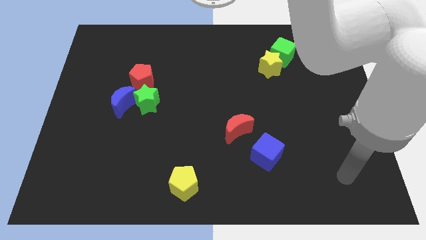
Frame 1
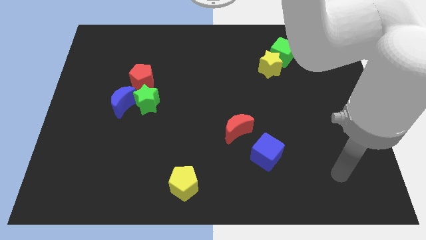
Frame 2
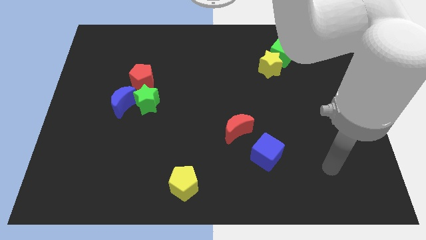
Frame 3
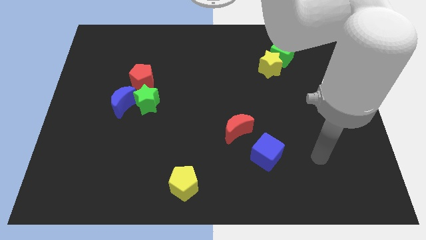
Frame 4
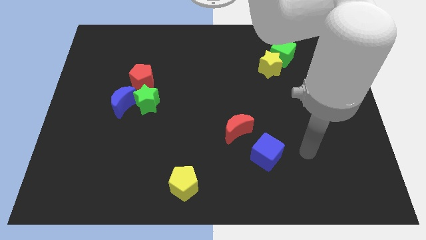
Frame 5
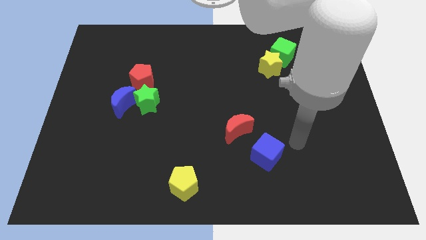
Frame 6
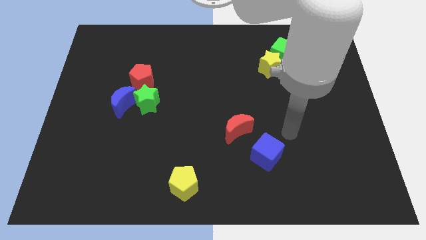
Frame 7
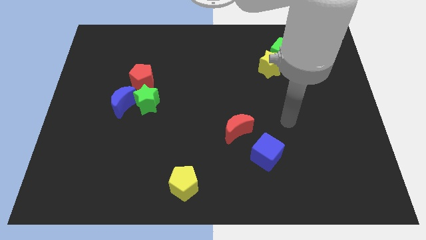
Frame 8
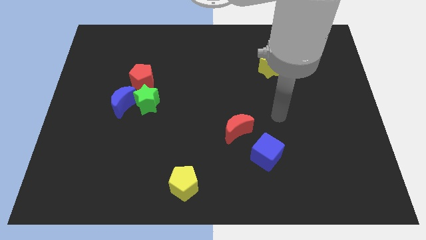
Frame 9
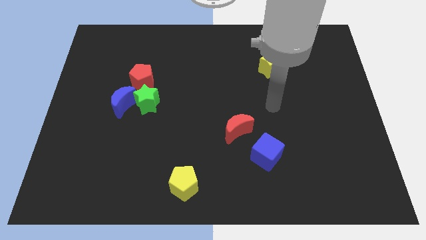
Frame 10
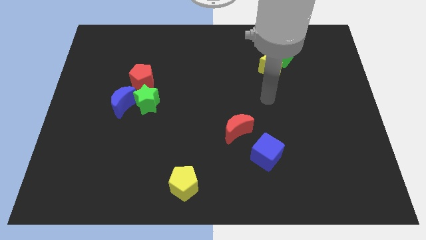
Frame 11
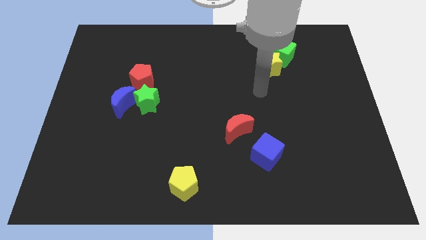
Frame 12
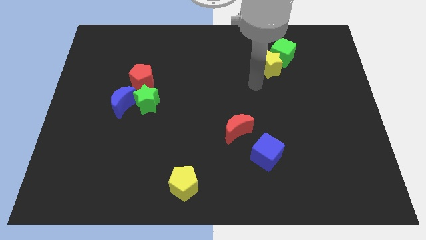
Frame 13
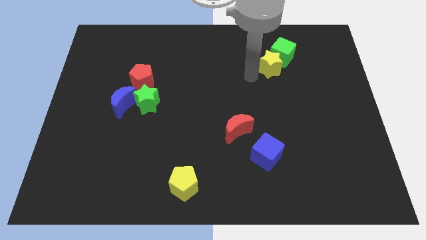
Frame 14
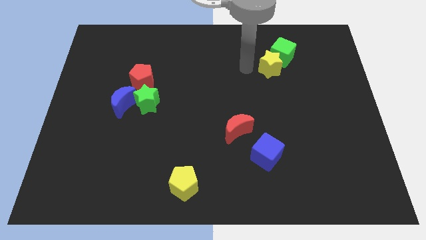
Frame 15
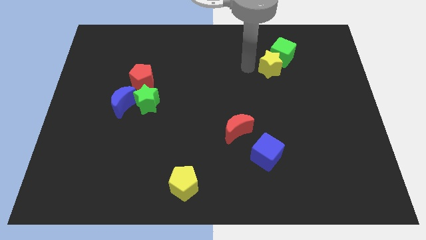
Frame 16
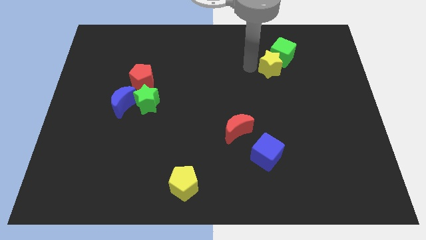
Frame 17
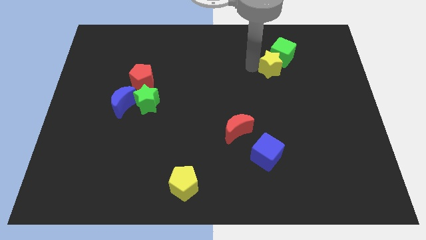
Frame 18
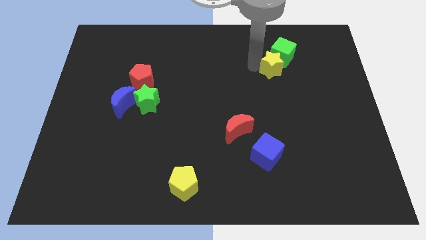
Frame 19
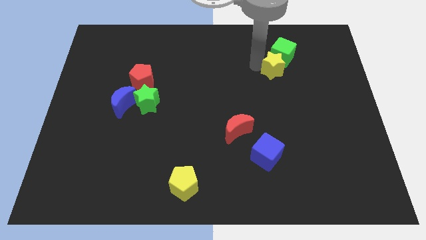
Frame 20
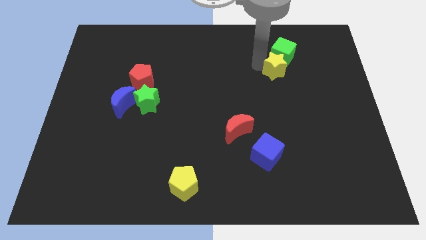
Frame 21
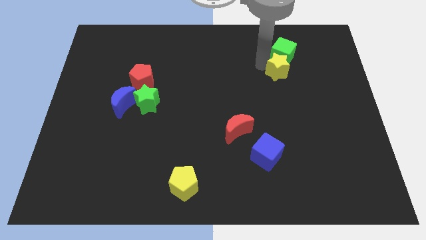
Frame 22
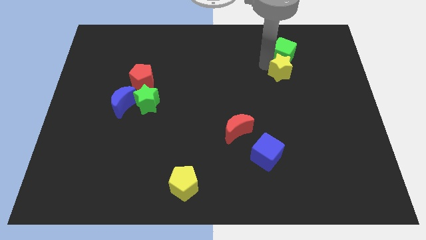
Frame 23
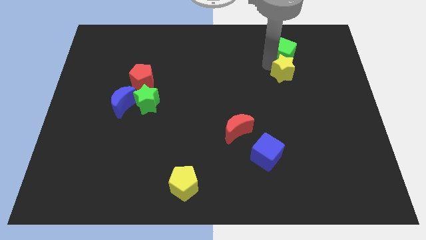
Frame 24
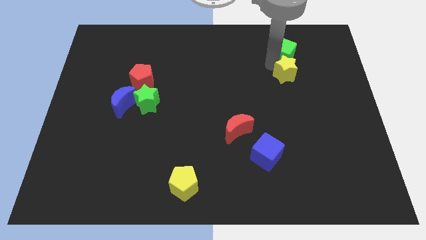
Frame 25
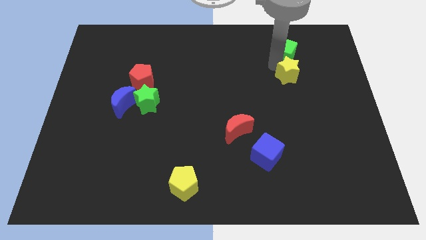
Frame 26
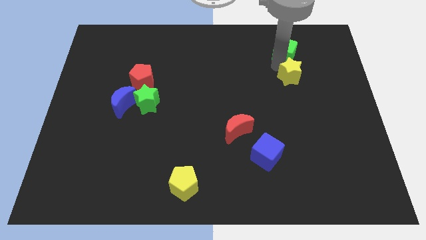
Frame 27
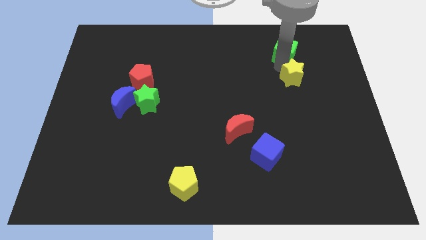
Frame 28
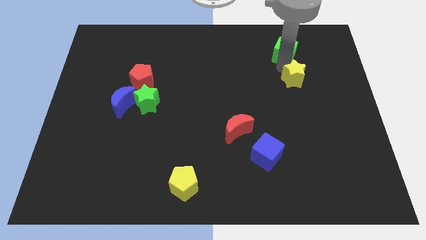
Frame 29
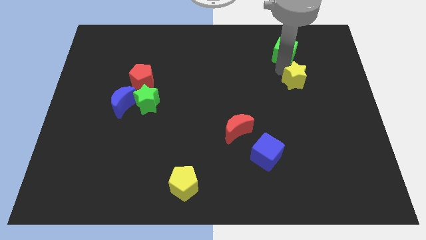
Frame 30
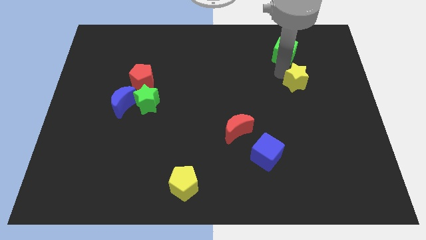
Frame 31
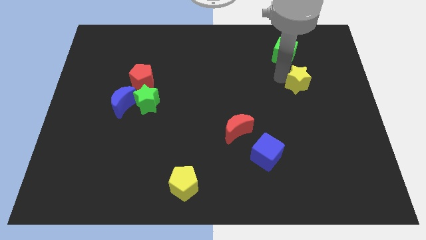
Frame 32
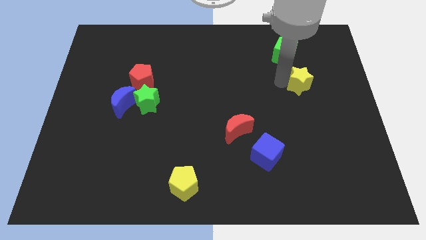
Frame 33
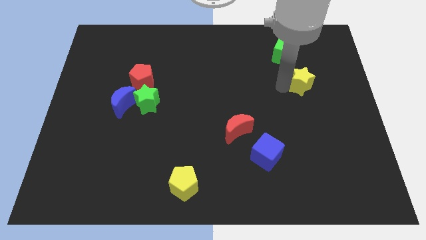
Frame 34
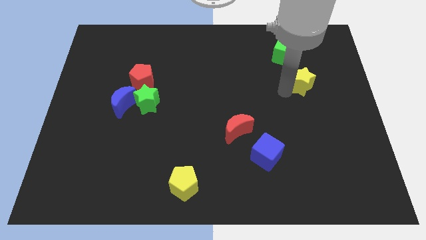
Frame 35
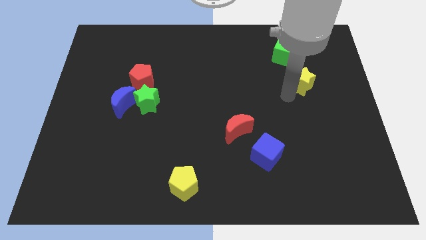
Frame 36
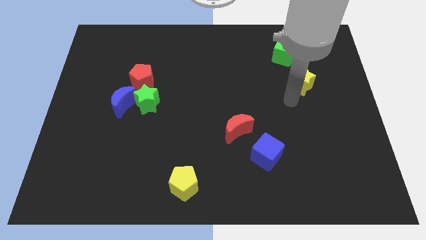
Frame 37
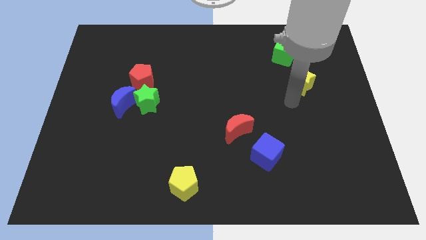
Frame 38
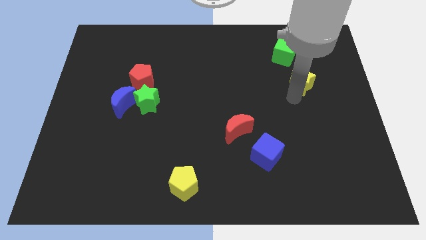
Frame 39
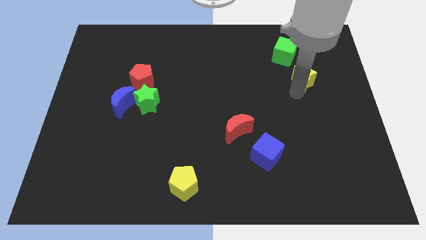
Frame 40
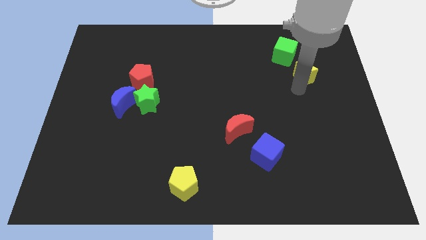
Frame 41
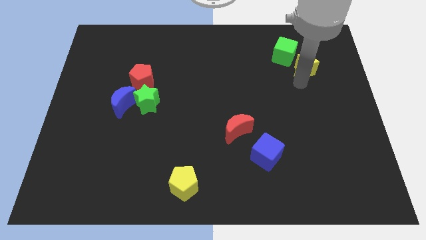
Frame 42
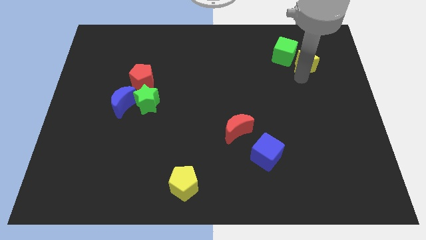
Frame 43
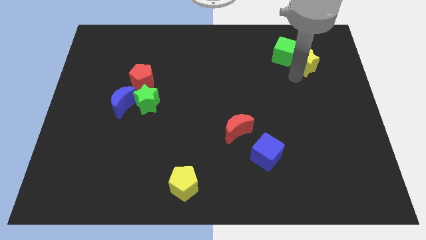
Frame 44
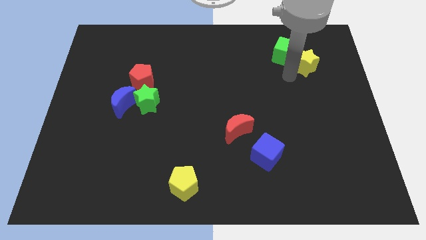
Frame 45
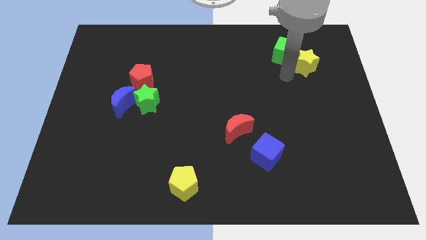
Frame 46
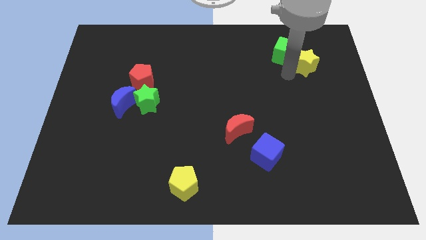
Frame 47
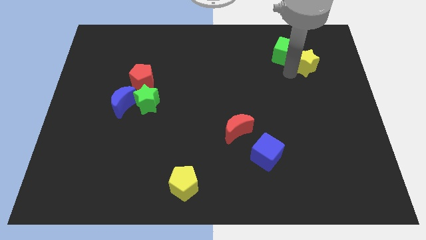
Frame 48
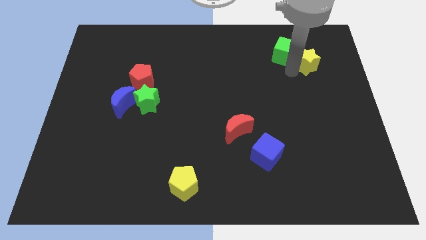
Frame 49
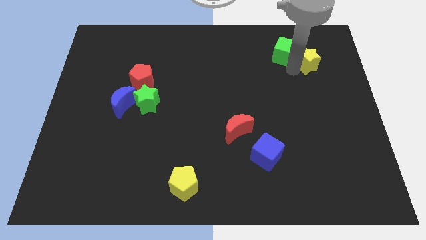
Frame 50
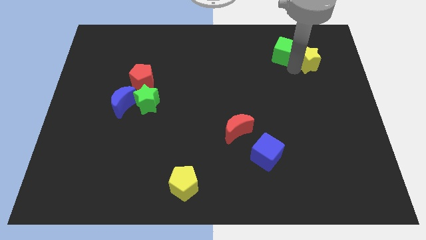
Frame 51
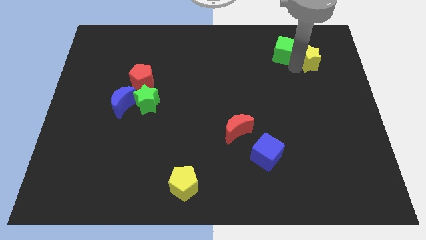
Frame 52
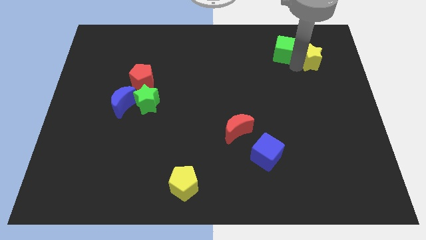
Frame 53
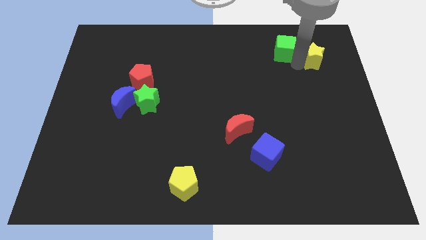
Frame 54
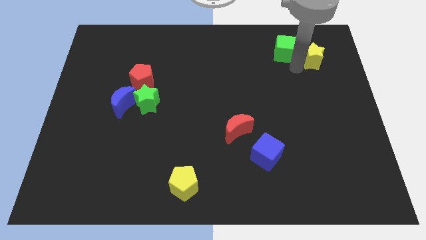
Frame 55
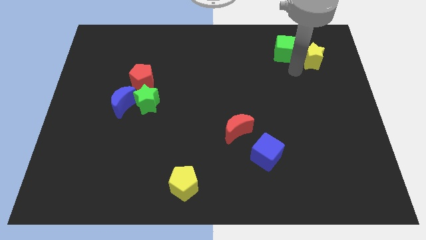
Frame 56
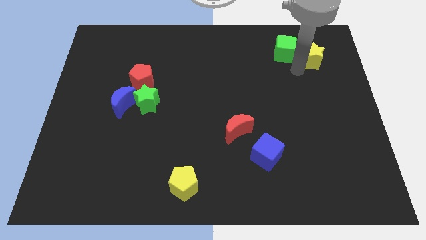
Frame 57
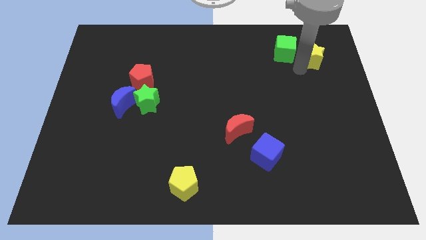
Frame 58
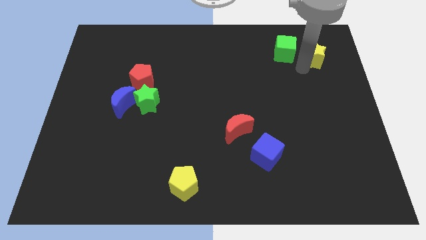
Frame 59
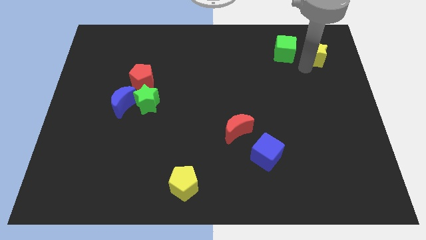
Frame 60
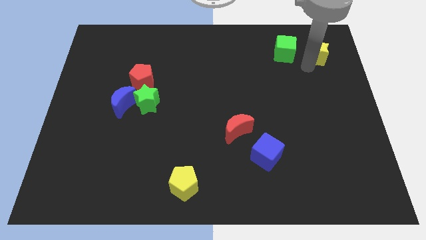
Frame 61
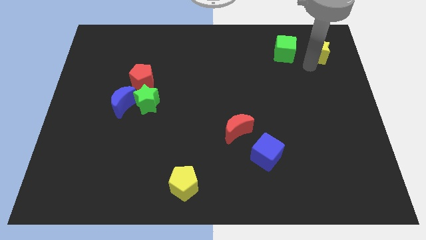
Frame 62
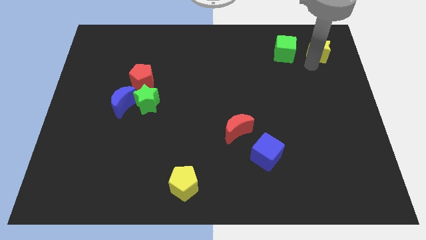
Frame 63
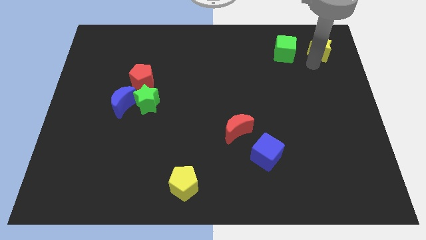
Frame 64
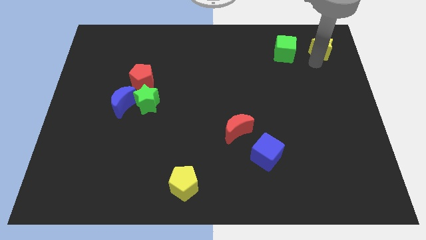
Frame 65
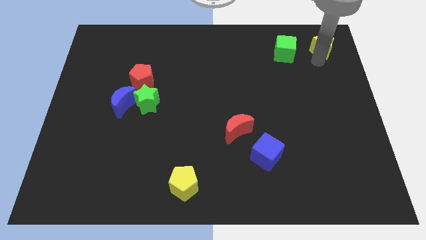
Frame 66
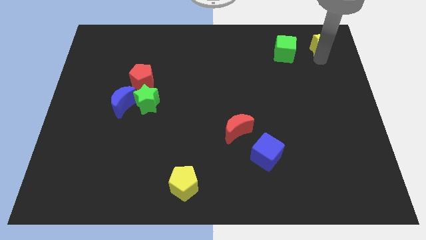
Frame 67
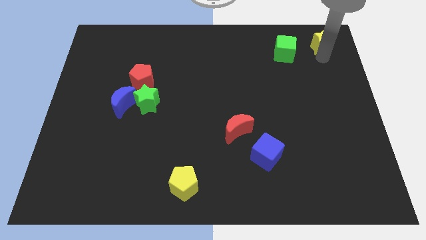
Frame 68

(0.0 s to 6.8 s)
push the yellow star to the top right of the board
